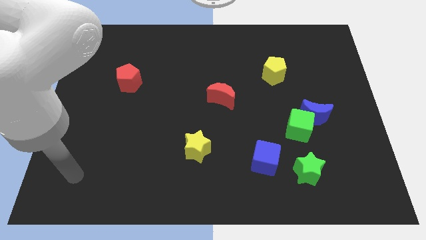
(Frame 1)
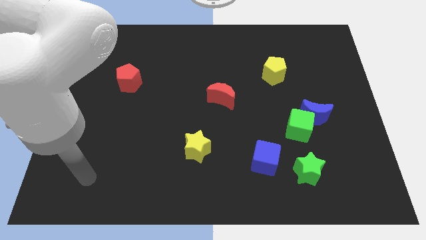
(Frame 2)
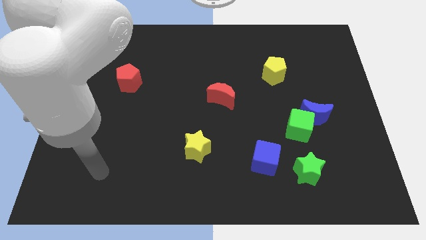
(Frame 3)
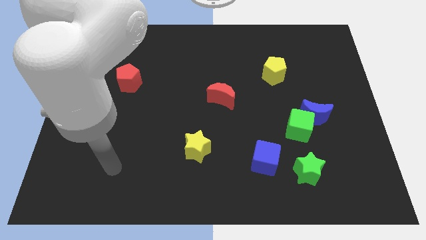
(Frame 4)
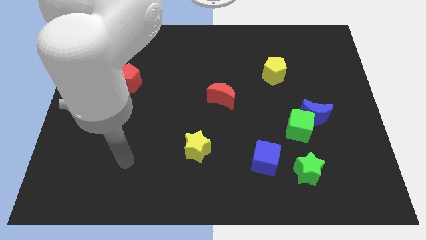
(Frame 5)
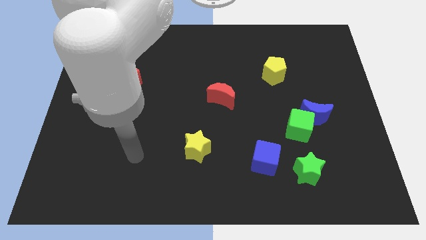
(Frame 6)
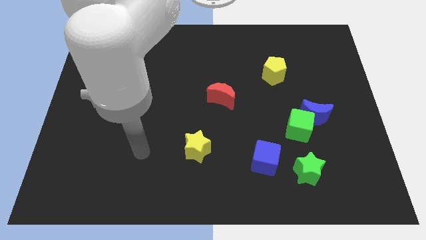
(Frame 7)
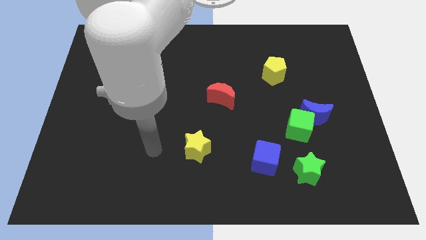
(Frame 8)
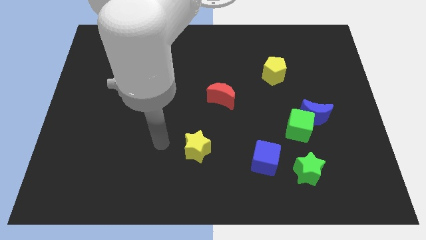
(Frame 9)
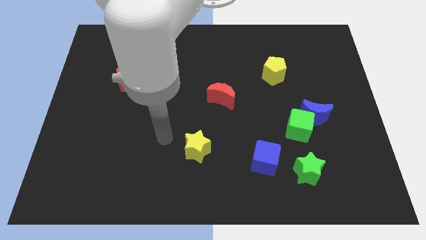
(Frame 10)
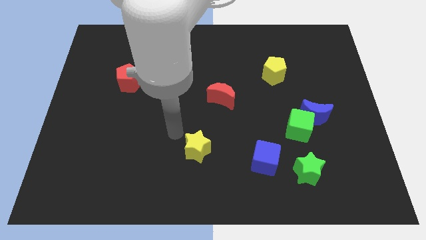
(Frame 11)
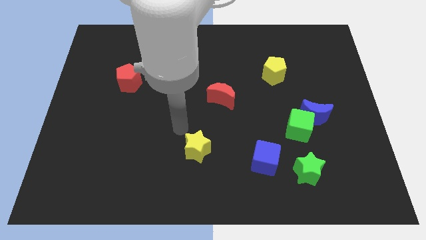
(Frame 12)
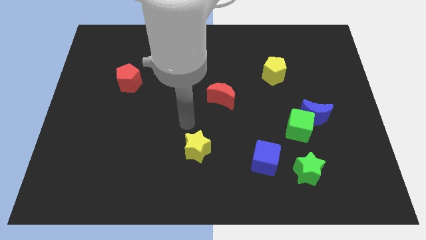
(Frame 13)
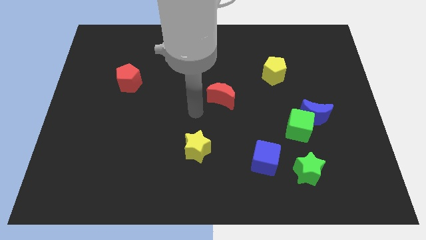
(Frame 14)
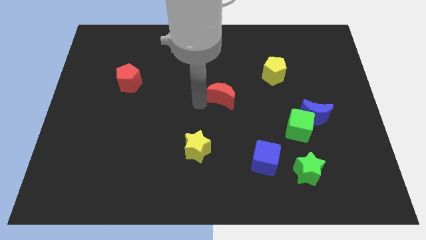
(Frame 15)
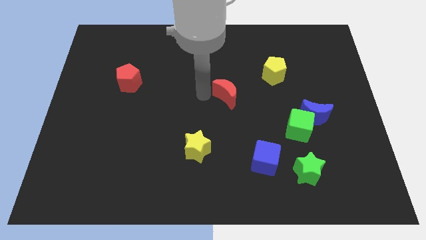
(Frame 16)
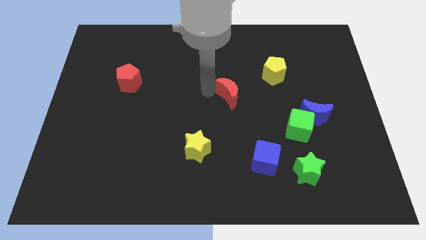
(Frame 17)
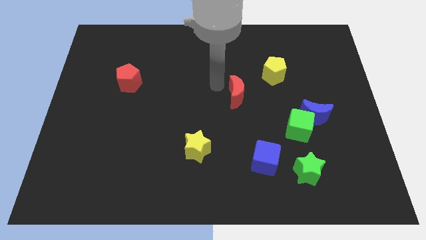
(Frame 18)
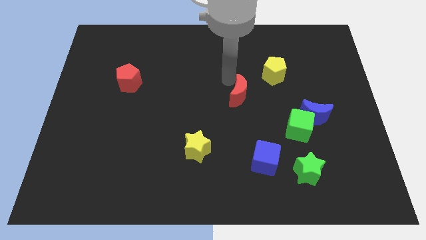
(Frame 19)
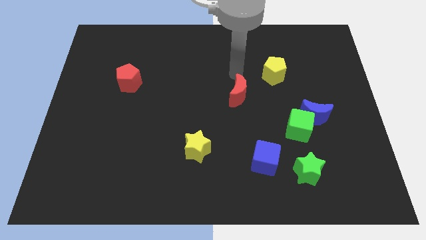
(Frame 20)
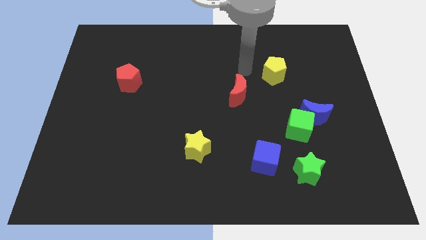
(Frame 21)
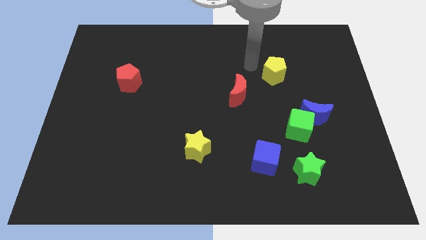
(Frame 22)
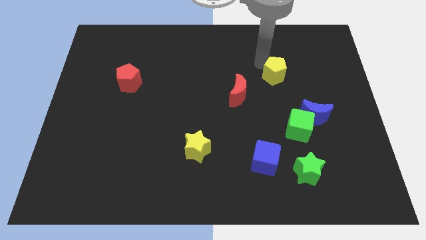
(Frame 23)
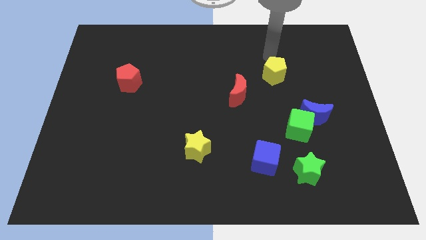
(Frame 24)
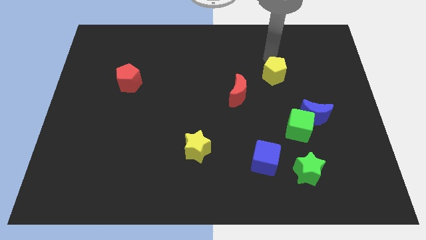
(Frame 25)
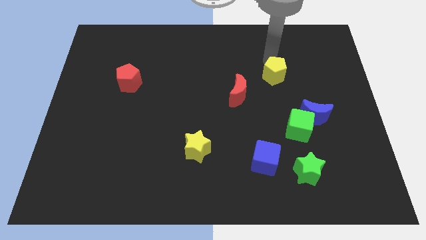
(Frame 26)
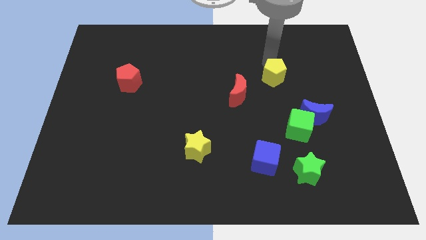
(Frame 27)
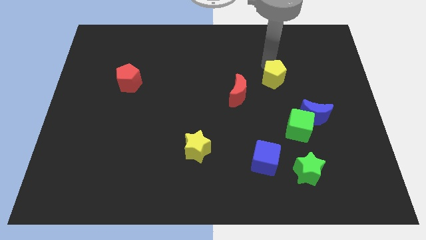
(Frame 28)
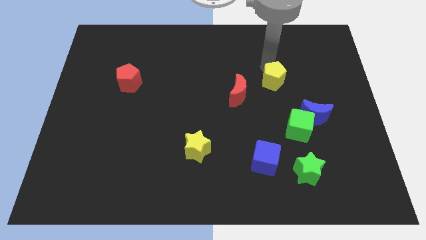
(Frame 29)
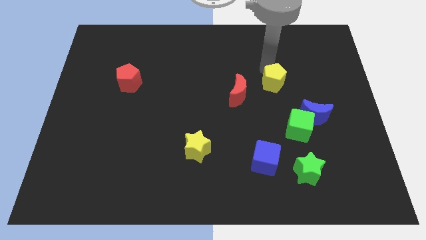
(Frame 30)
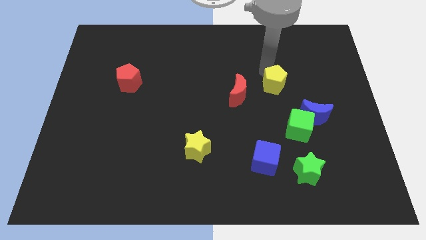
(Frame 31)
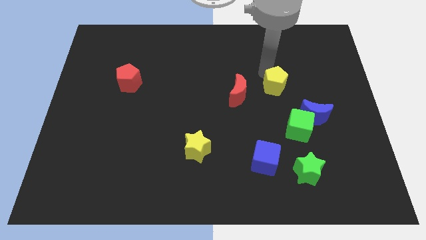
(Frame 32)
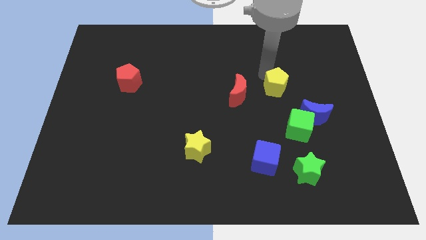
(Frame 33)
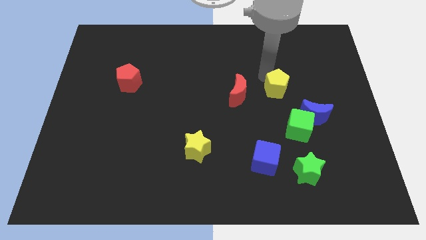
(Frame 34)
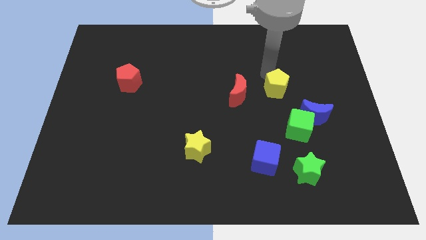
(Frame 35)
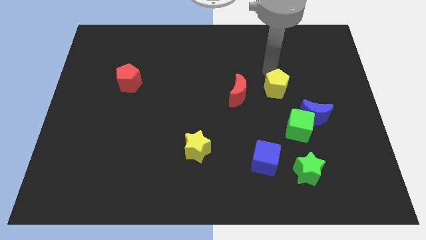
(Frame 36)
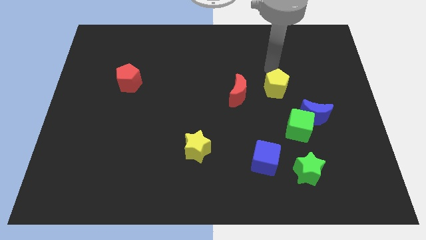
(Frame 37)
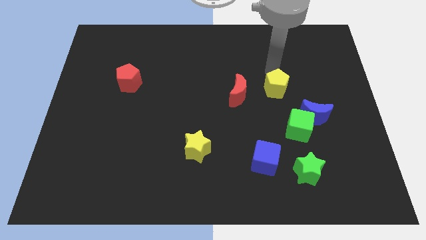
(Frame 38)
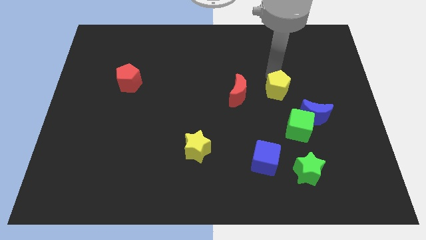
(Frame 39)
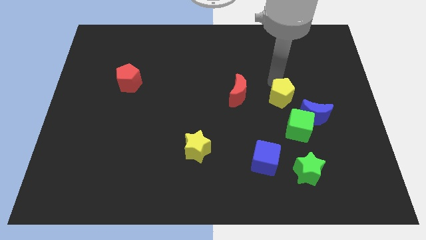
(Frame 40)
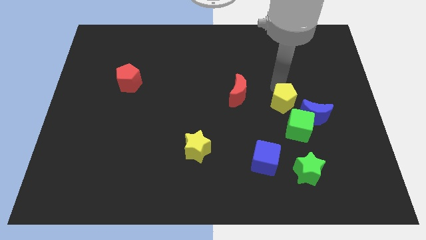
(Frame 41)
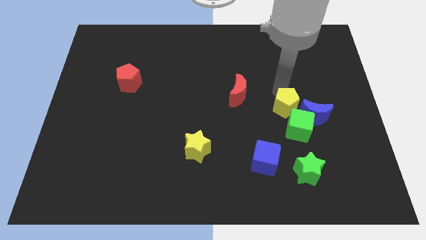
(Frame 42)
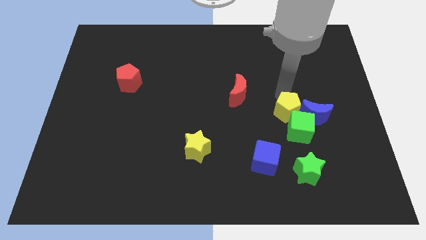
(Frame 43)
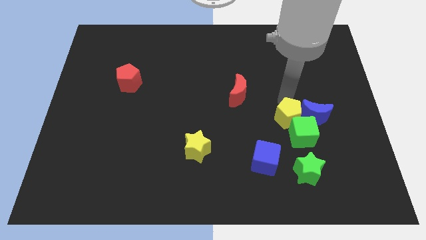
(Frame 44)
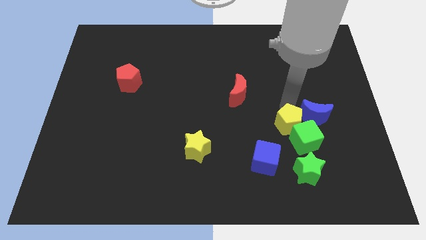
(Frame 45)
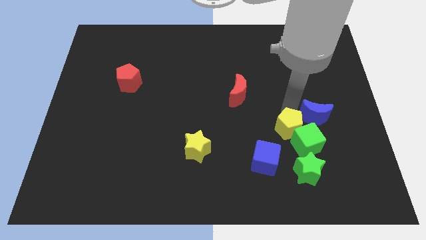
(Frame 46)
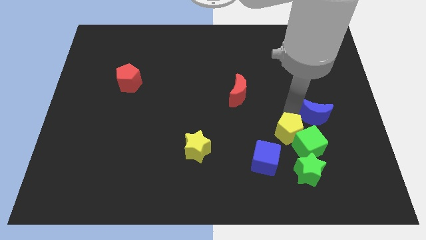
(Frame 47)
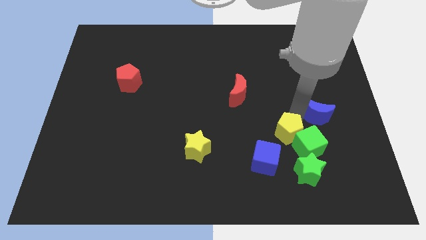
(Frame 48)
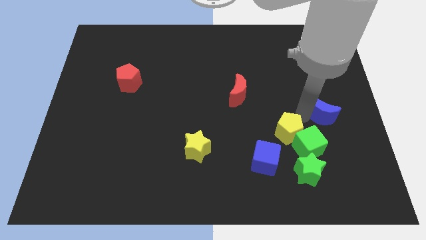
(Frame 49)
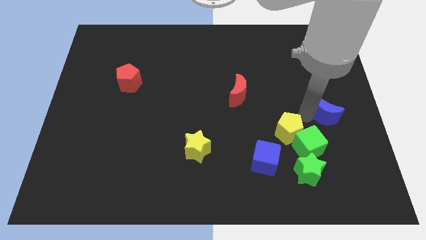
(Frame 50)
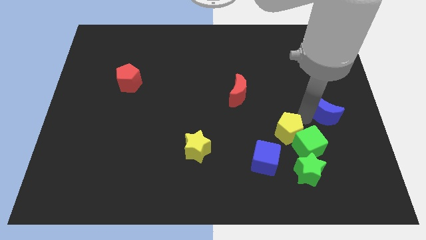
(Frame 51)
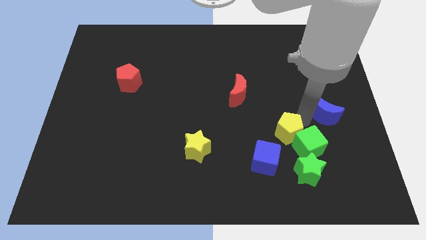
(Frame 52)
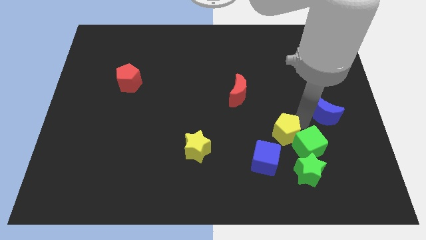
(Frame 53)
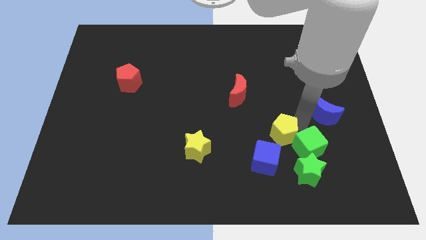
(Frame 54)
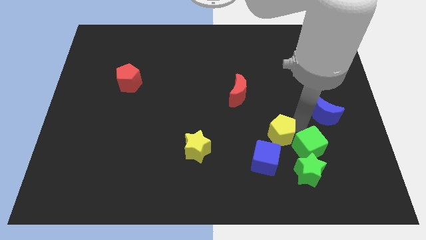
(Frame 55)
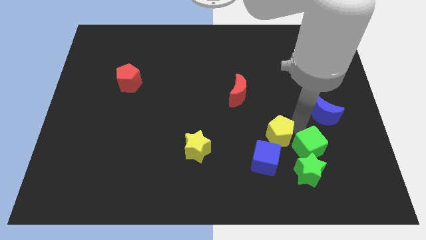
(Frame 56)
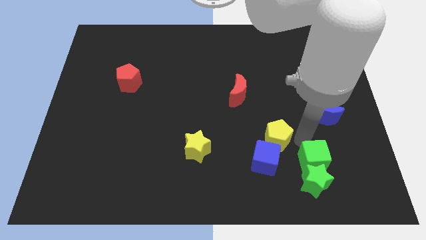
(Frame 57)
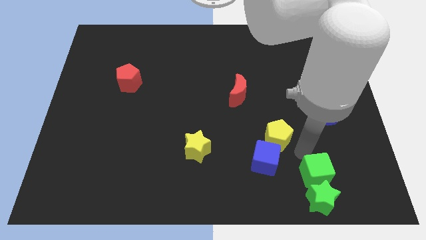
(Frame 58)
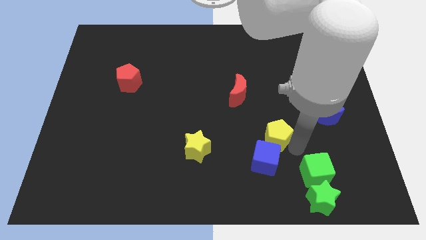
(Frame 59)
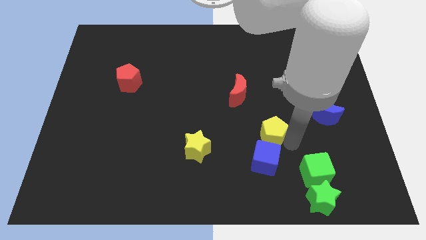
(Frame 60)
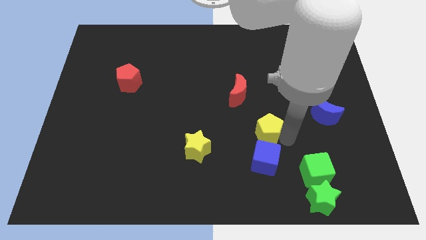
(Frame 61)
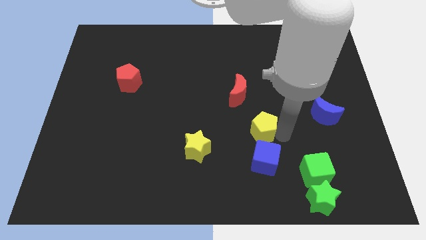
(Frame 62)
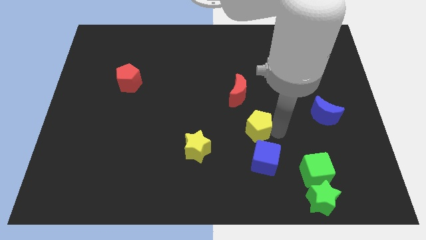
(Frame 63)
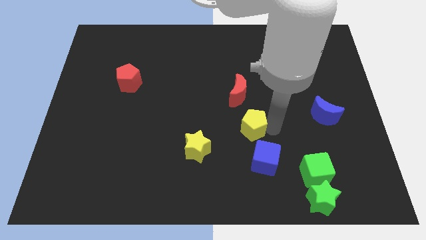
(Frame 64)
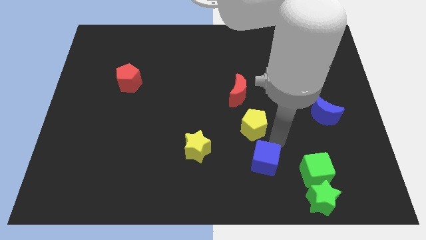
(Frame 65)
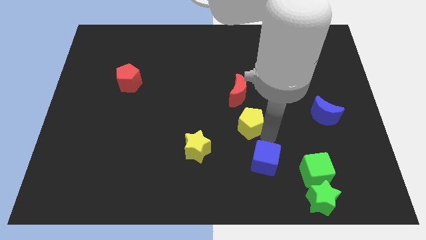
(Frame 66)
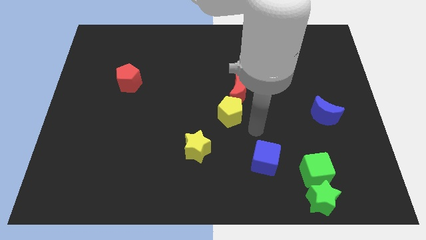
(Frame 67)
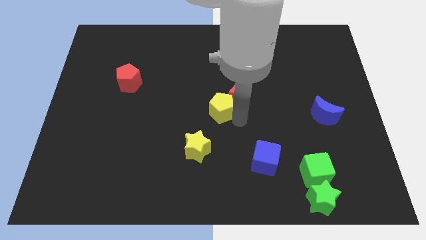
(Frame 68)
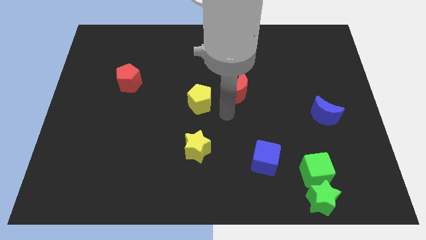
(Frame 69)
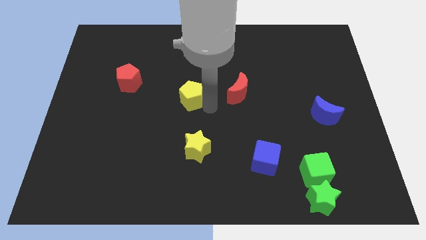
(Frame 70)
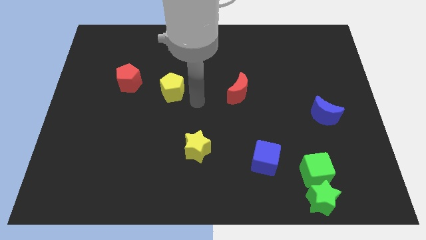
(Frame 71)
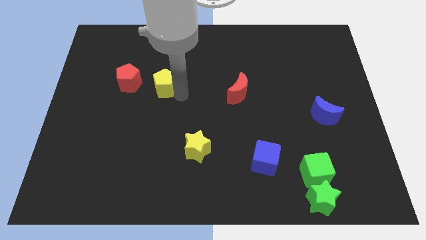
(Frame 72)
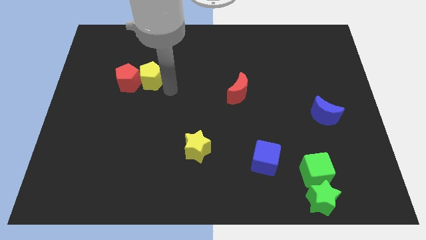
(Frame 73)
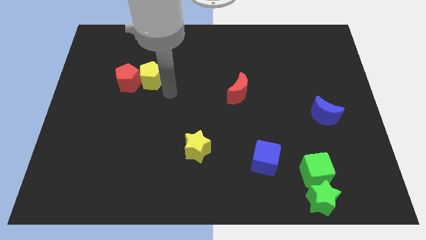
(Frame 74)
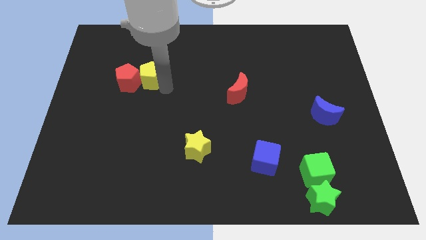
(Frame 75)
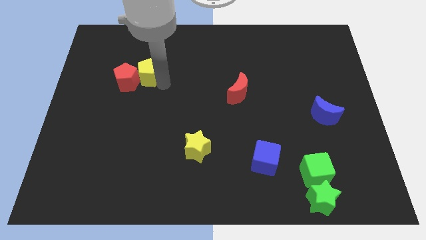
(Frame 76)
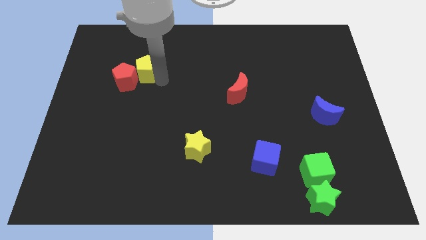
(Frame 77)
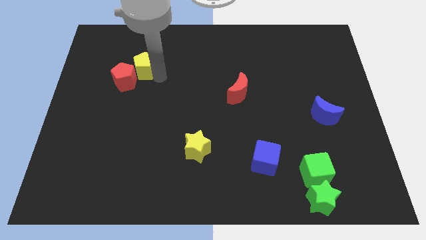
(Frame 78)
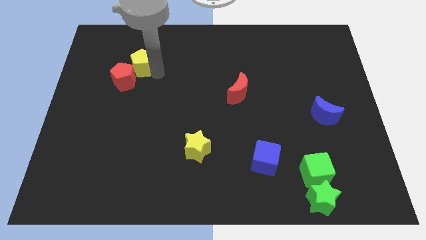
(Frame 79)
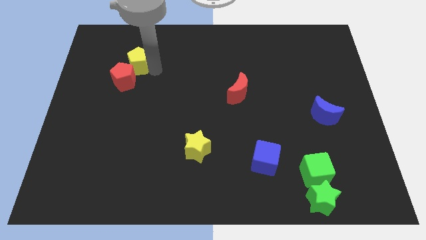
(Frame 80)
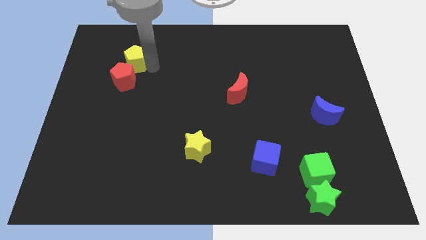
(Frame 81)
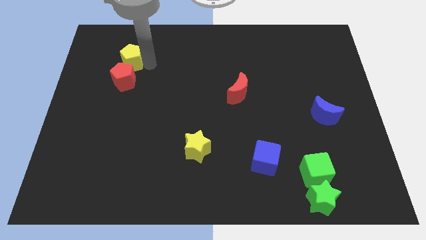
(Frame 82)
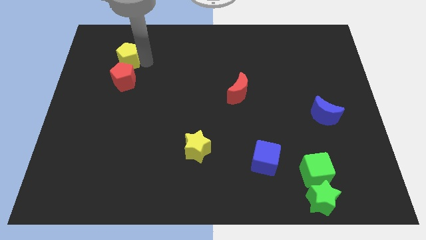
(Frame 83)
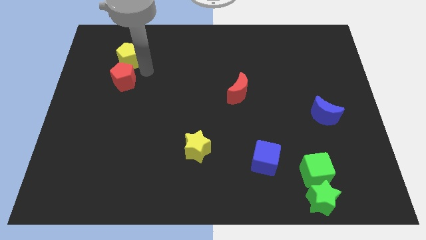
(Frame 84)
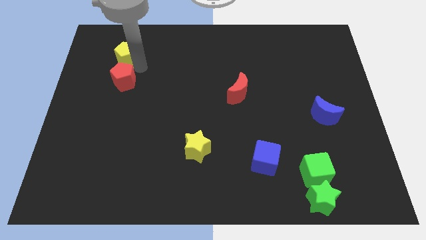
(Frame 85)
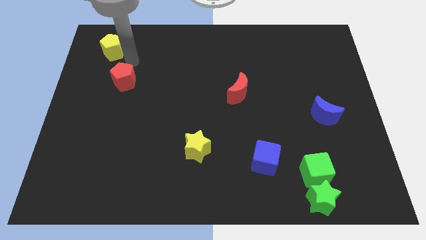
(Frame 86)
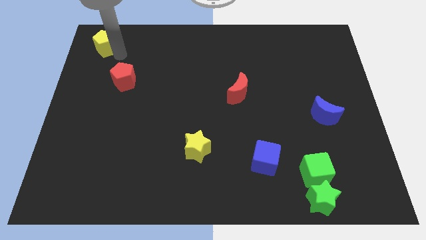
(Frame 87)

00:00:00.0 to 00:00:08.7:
push the yellow pentagon to the top left of the board
